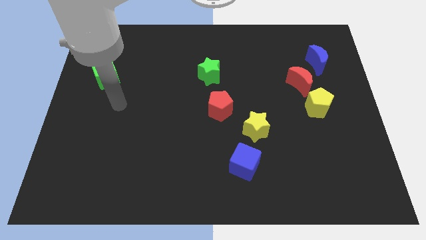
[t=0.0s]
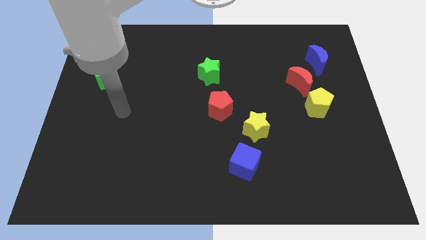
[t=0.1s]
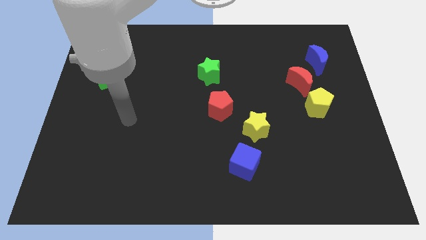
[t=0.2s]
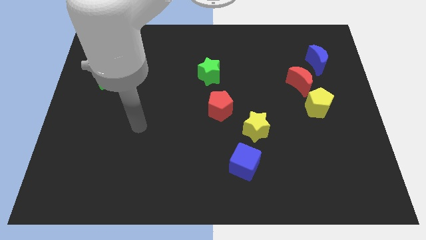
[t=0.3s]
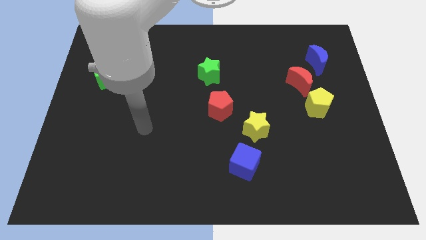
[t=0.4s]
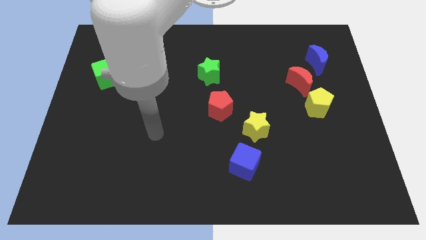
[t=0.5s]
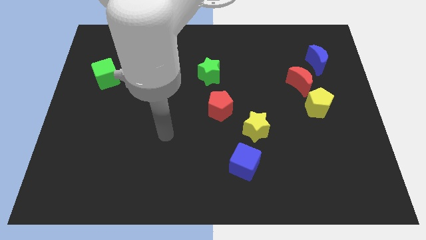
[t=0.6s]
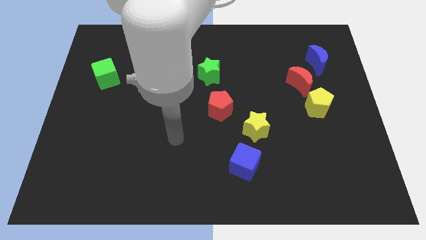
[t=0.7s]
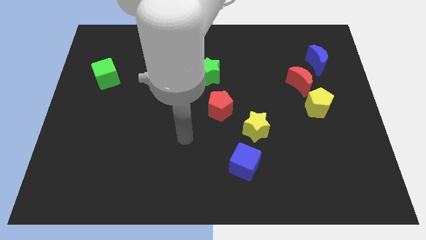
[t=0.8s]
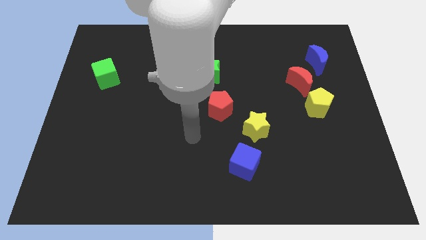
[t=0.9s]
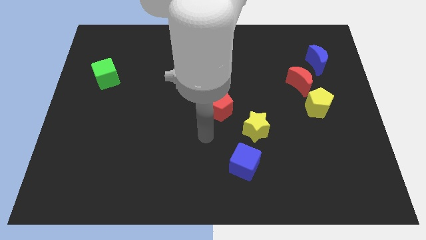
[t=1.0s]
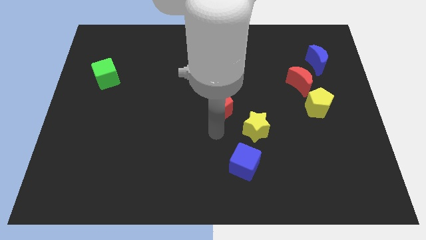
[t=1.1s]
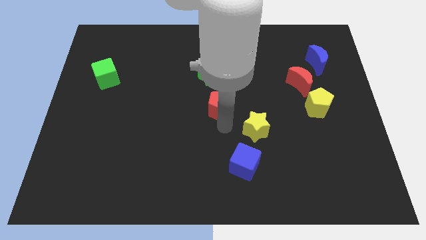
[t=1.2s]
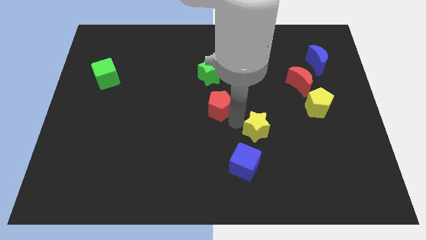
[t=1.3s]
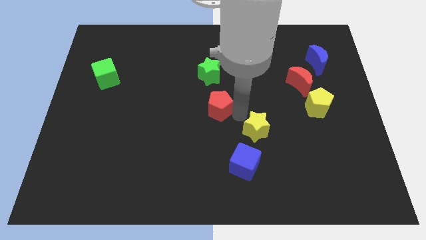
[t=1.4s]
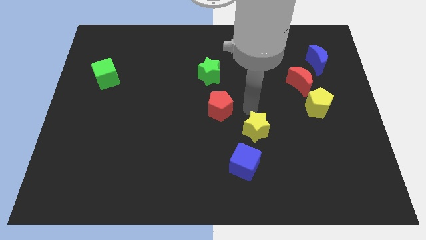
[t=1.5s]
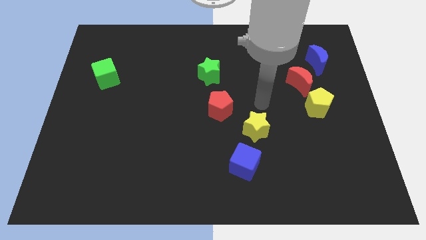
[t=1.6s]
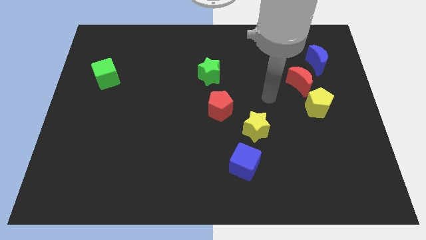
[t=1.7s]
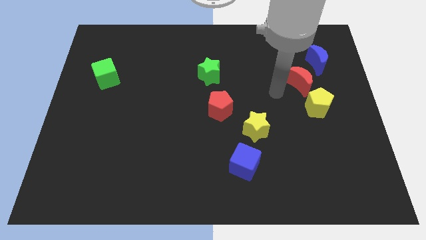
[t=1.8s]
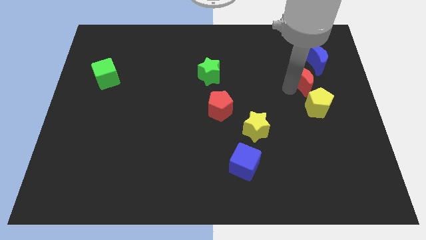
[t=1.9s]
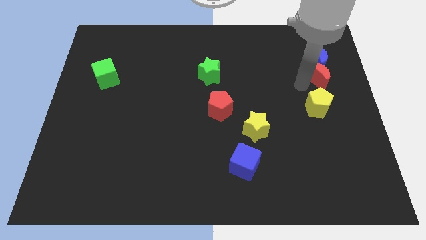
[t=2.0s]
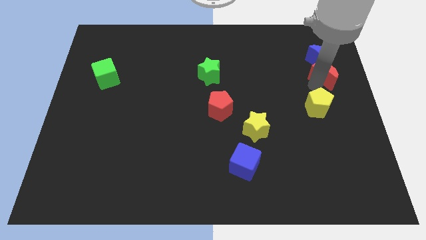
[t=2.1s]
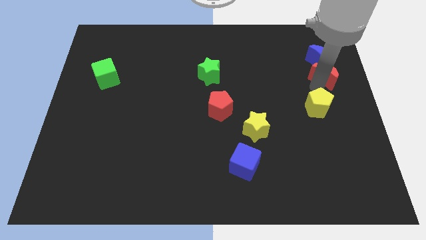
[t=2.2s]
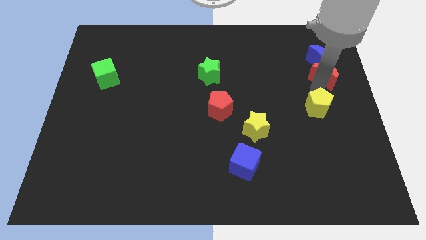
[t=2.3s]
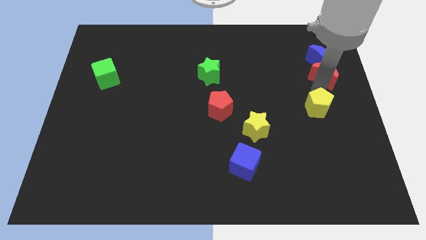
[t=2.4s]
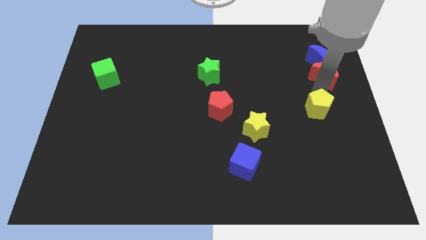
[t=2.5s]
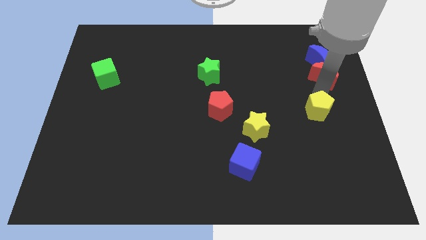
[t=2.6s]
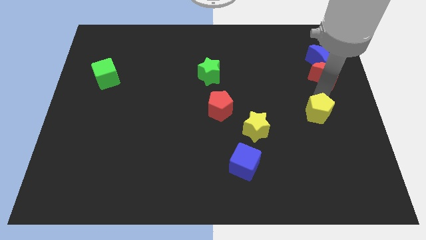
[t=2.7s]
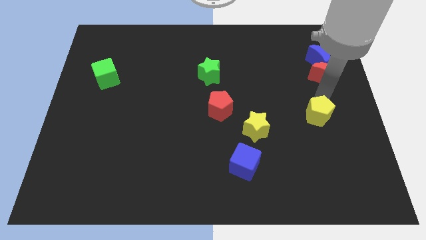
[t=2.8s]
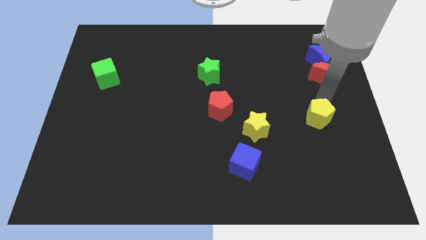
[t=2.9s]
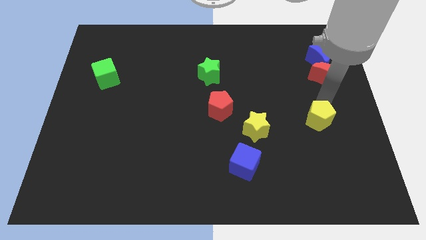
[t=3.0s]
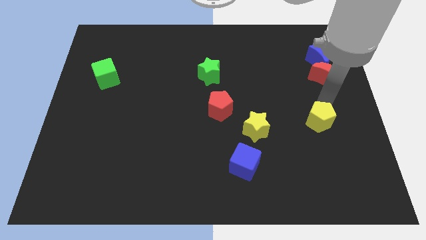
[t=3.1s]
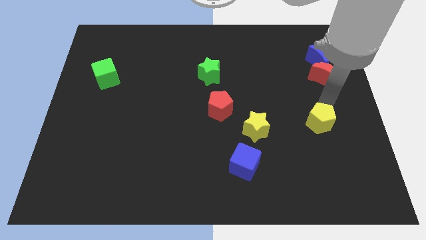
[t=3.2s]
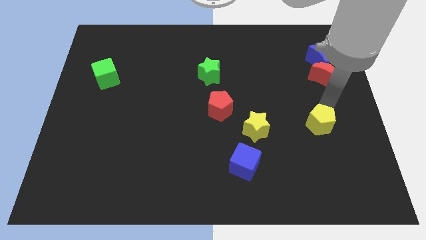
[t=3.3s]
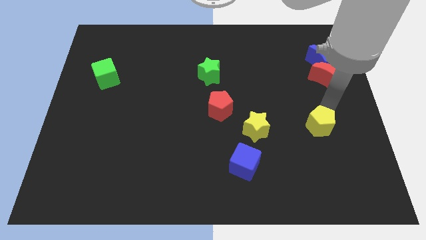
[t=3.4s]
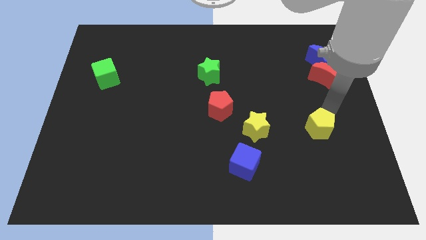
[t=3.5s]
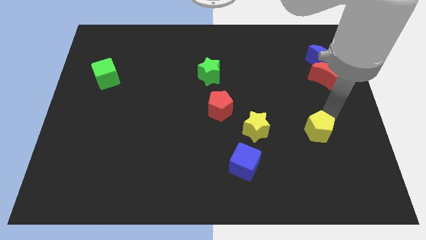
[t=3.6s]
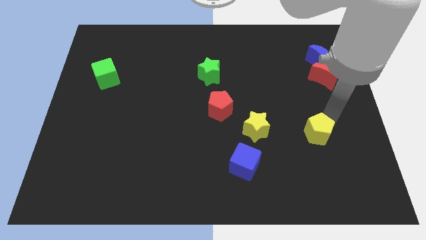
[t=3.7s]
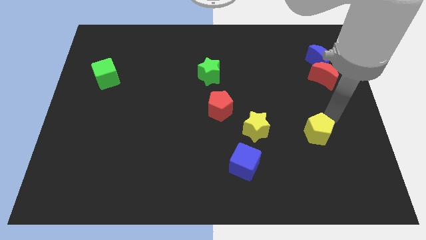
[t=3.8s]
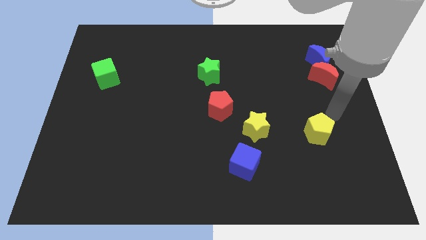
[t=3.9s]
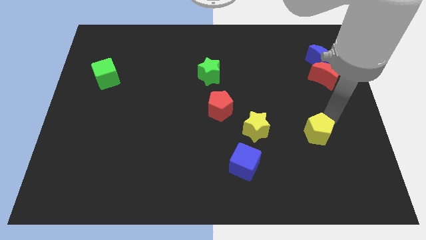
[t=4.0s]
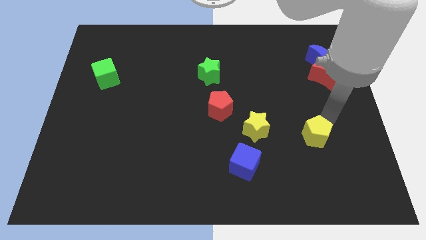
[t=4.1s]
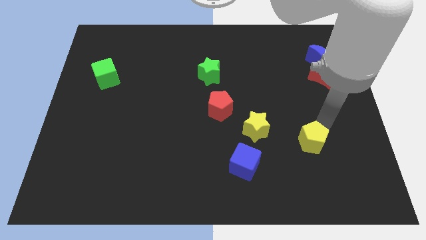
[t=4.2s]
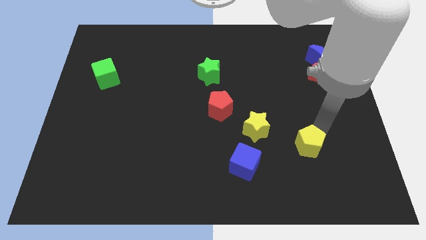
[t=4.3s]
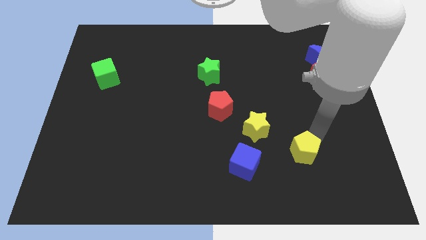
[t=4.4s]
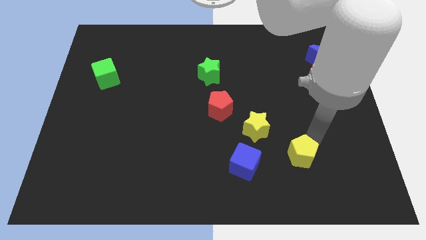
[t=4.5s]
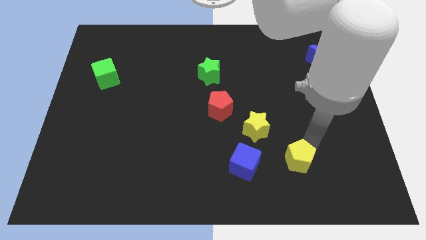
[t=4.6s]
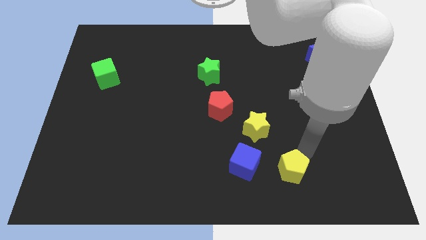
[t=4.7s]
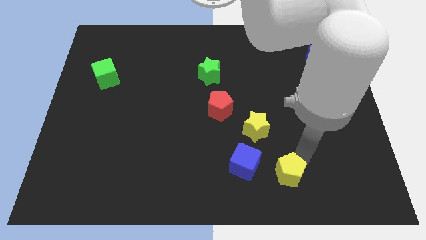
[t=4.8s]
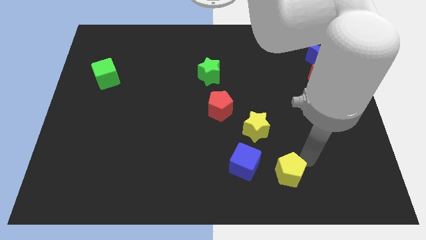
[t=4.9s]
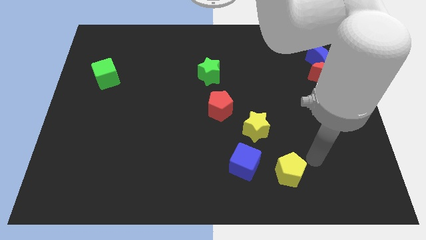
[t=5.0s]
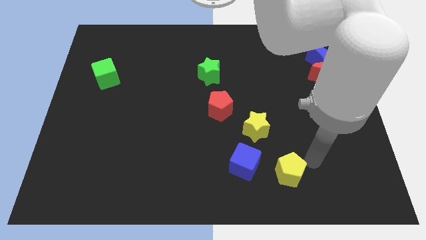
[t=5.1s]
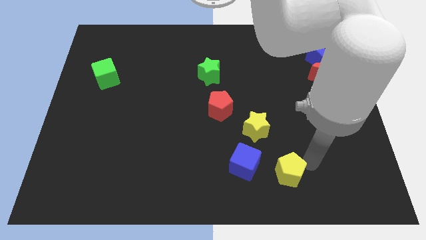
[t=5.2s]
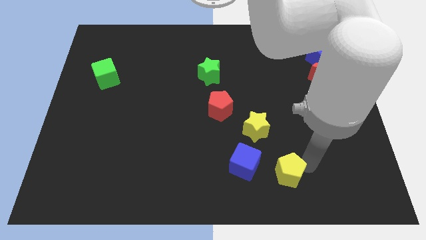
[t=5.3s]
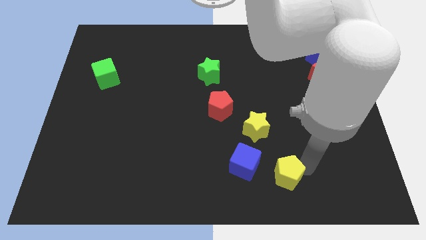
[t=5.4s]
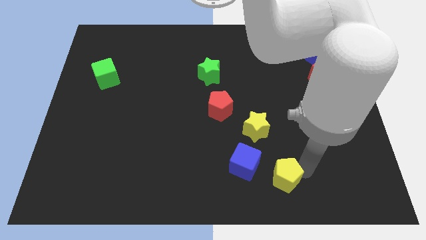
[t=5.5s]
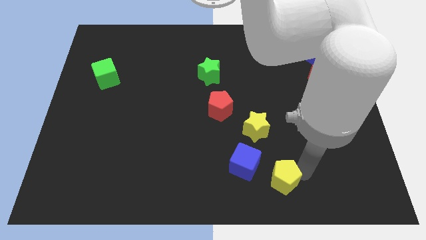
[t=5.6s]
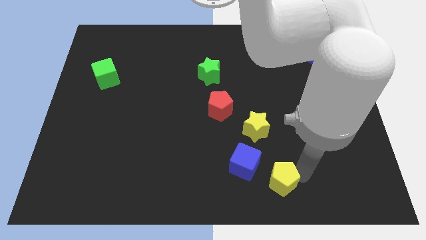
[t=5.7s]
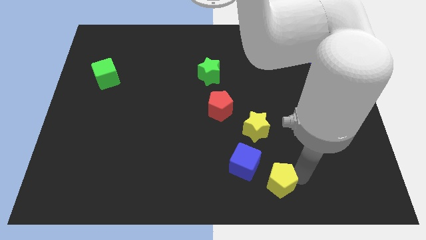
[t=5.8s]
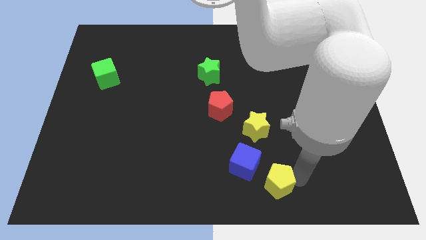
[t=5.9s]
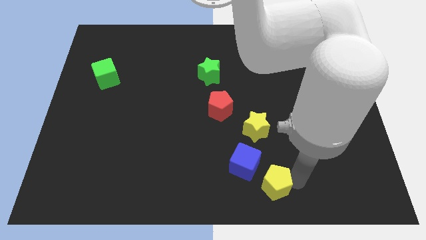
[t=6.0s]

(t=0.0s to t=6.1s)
push the yellow pentagon to the bottom

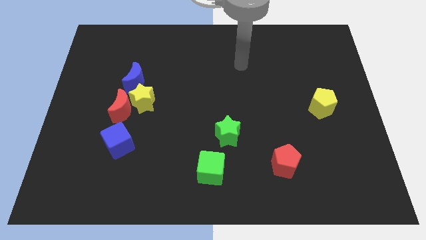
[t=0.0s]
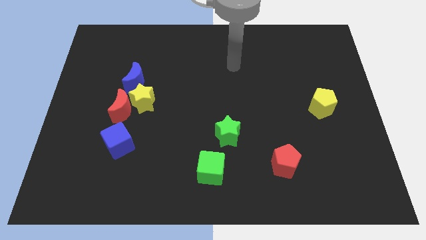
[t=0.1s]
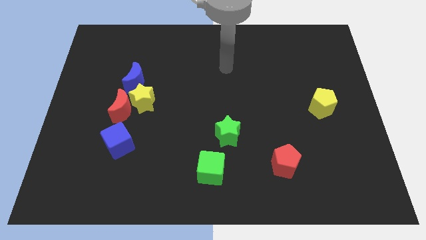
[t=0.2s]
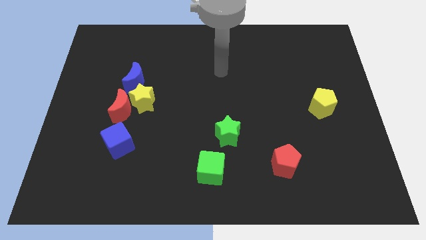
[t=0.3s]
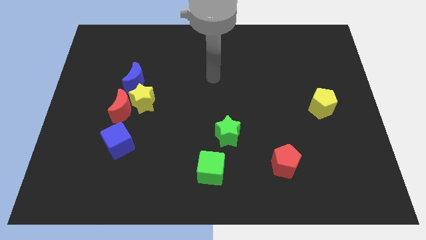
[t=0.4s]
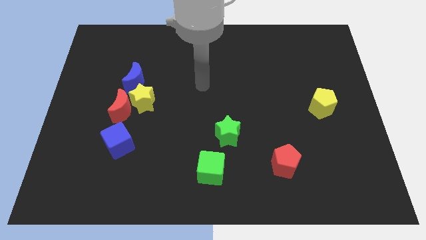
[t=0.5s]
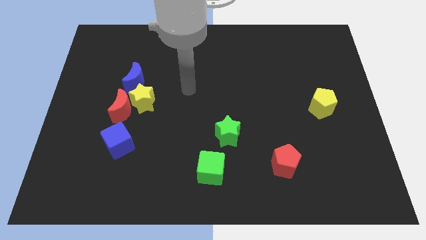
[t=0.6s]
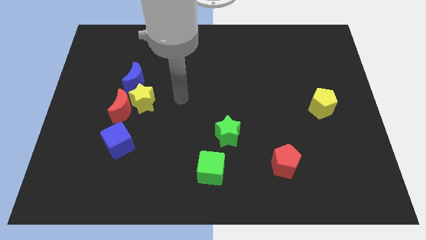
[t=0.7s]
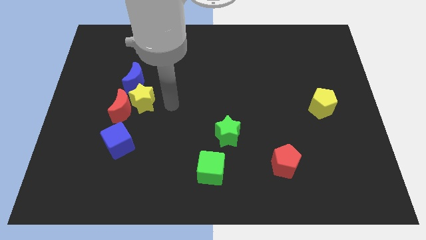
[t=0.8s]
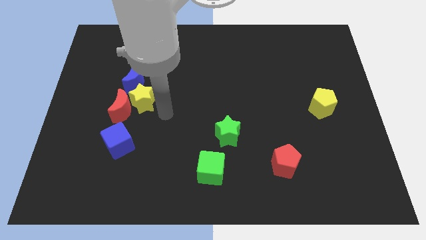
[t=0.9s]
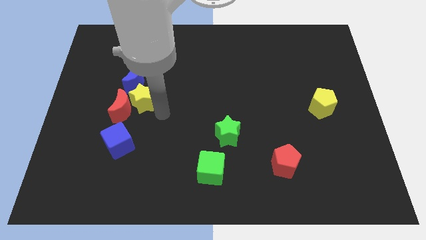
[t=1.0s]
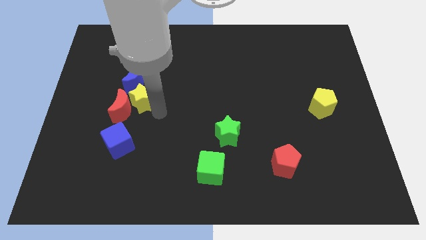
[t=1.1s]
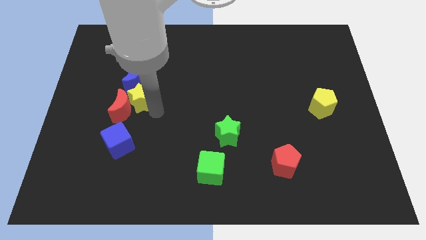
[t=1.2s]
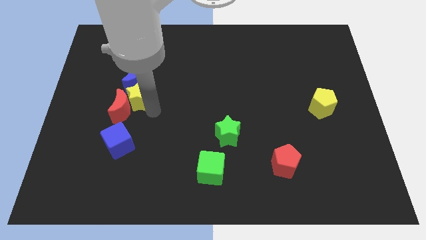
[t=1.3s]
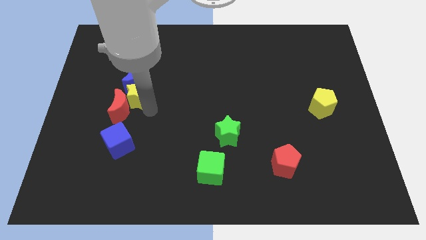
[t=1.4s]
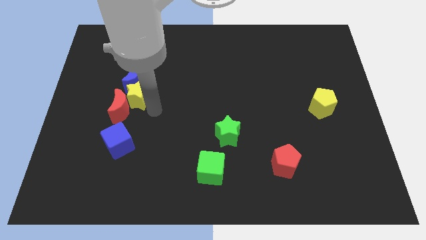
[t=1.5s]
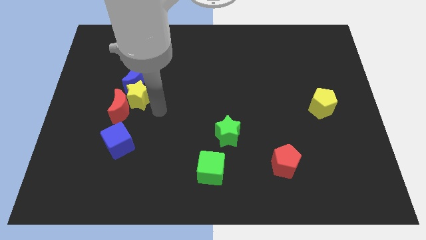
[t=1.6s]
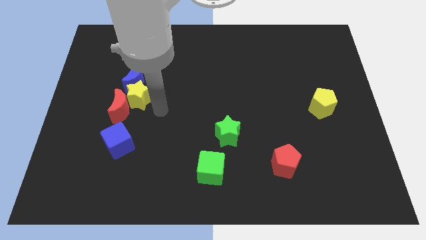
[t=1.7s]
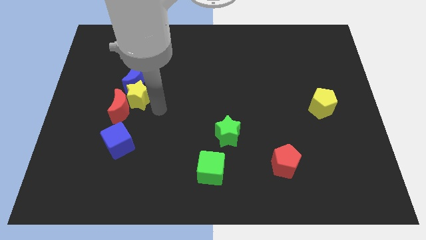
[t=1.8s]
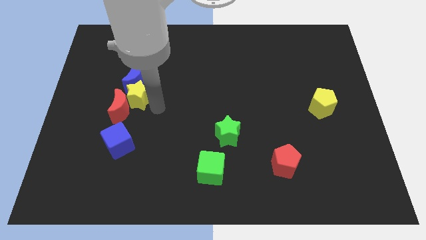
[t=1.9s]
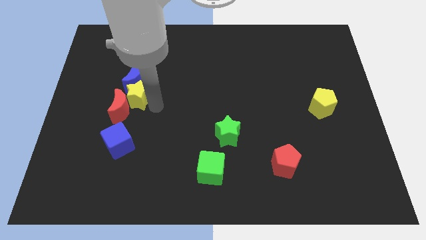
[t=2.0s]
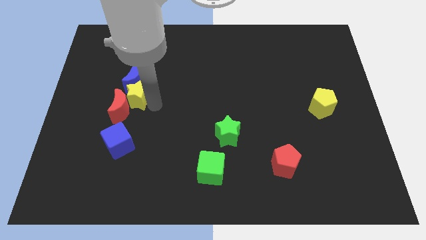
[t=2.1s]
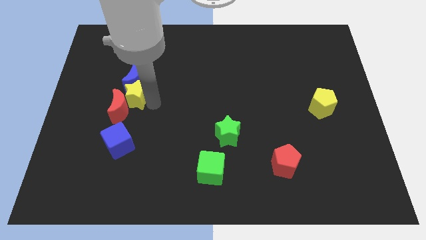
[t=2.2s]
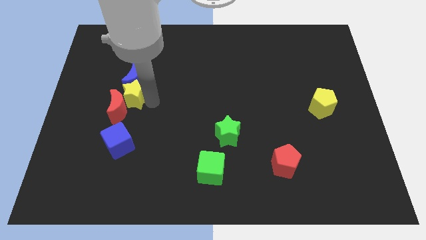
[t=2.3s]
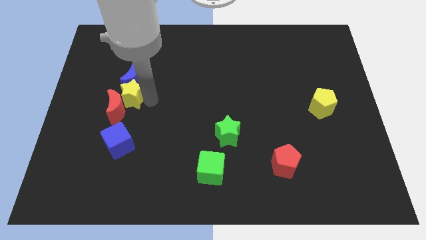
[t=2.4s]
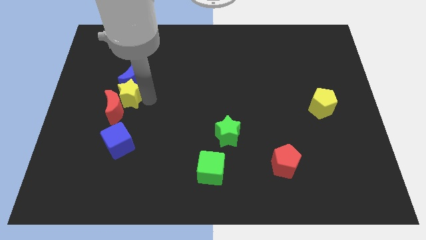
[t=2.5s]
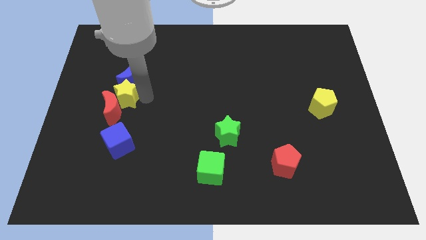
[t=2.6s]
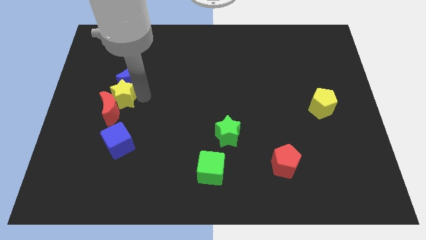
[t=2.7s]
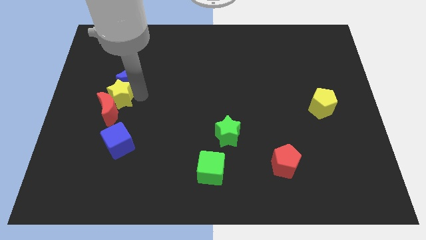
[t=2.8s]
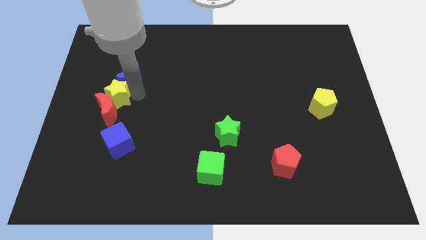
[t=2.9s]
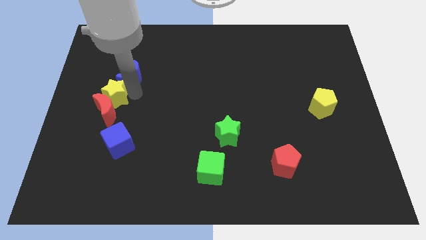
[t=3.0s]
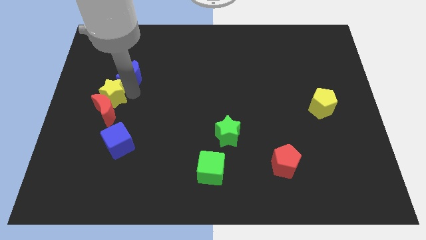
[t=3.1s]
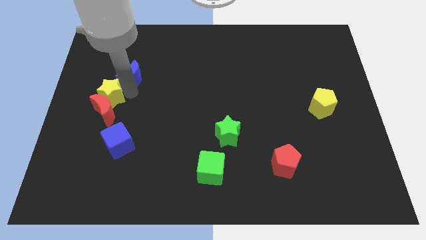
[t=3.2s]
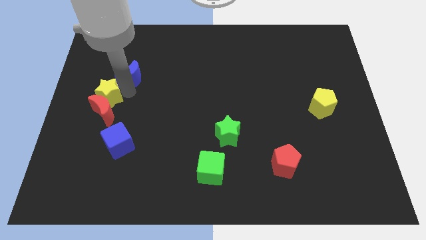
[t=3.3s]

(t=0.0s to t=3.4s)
push the yellow star to the center left
